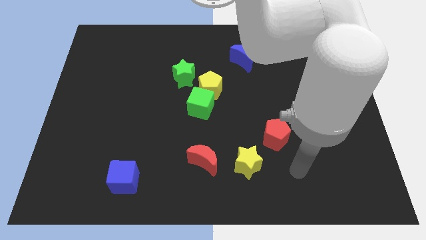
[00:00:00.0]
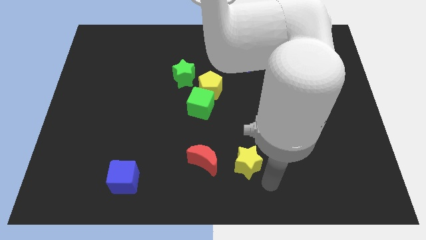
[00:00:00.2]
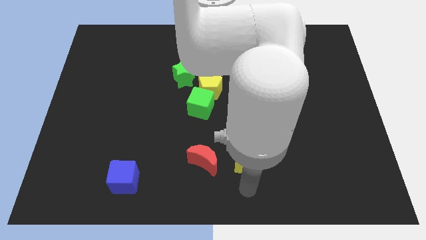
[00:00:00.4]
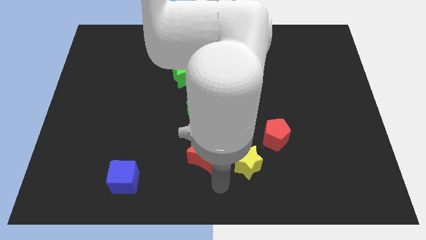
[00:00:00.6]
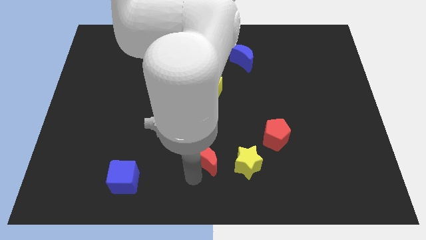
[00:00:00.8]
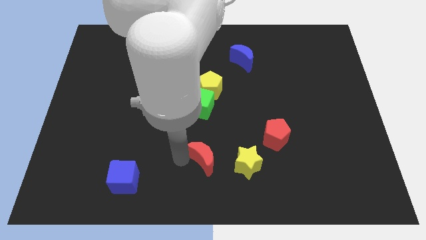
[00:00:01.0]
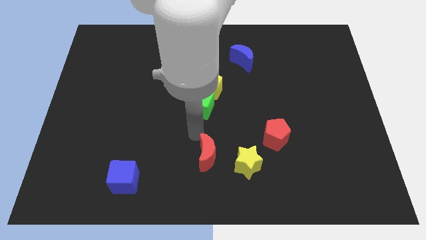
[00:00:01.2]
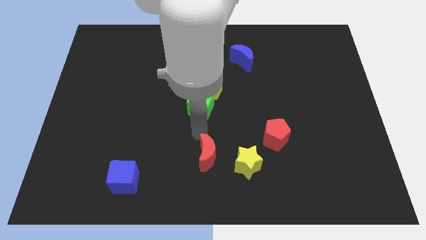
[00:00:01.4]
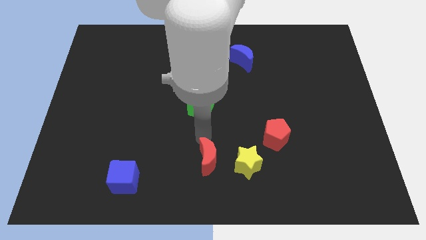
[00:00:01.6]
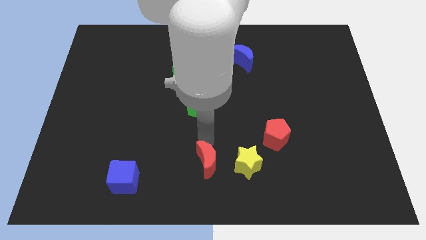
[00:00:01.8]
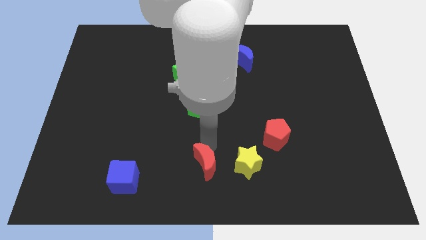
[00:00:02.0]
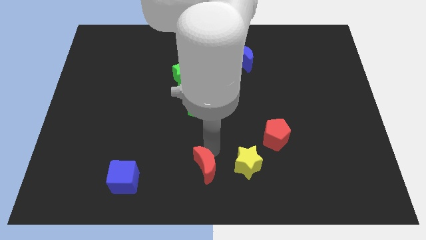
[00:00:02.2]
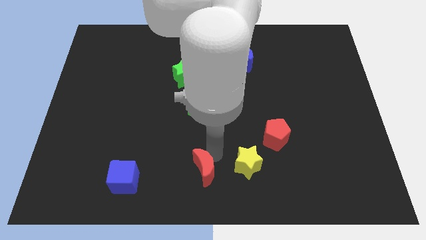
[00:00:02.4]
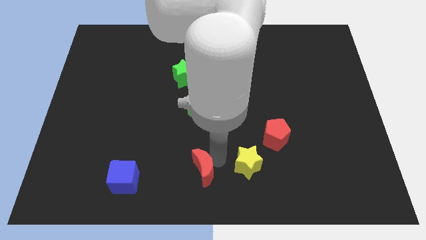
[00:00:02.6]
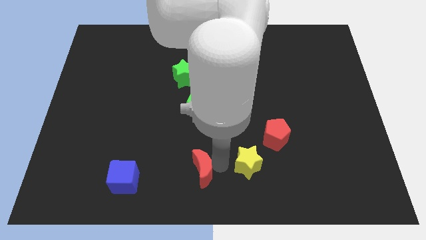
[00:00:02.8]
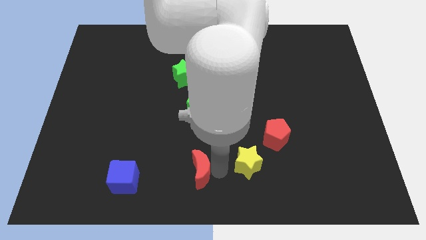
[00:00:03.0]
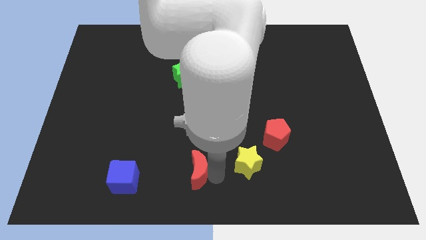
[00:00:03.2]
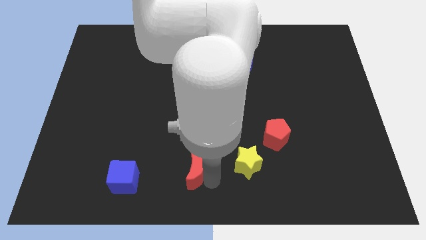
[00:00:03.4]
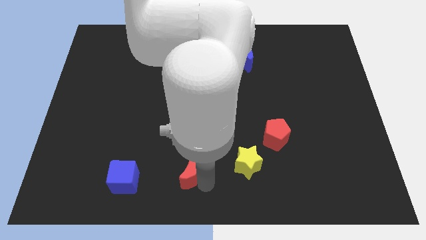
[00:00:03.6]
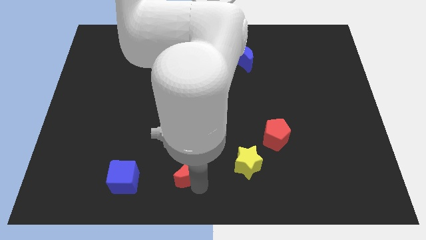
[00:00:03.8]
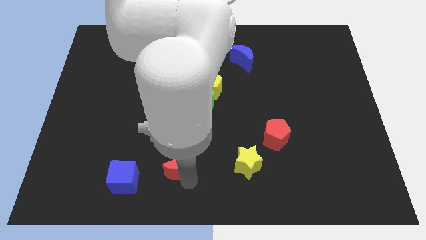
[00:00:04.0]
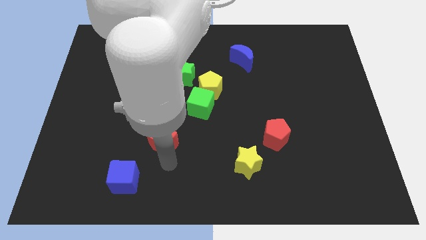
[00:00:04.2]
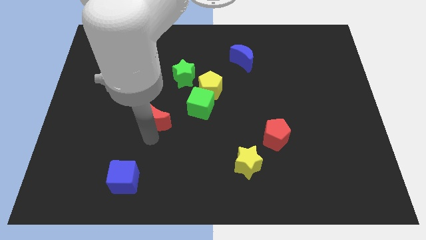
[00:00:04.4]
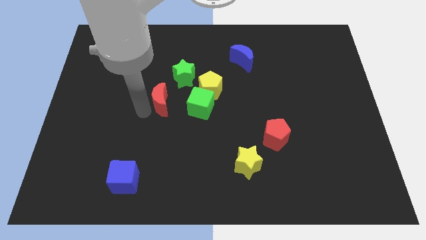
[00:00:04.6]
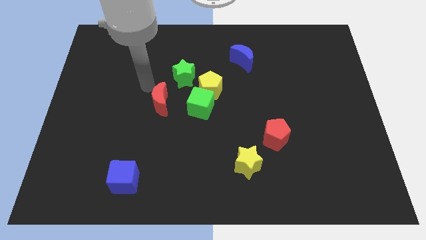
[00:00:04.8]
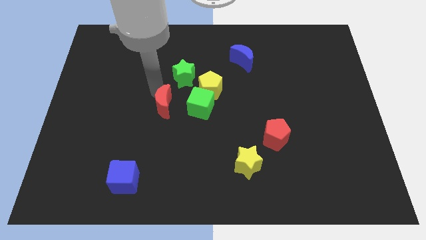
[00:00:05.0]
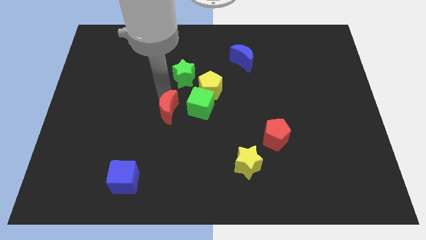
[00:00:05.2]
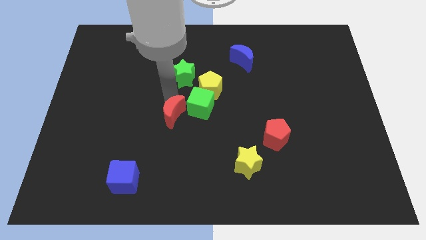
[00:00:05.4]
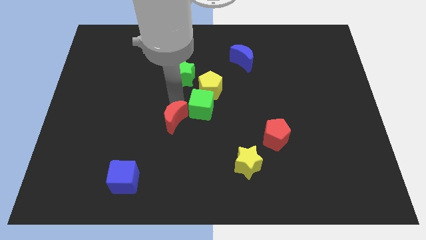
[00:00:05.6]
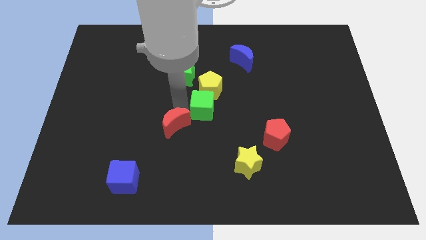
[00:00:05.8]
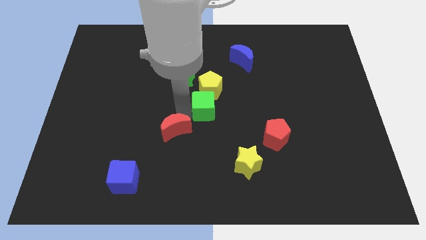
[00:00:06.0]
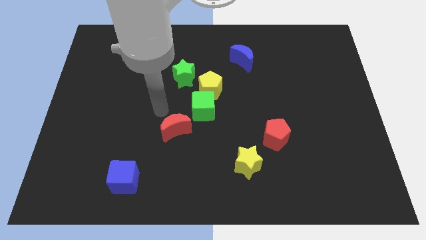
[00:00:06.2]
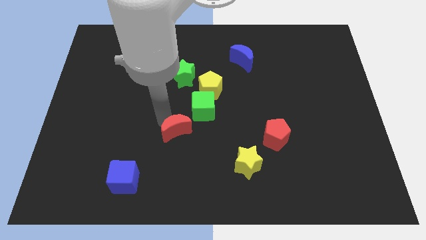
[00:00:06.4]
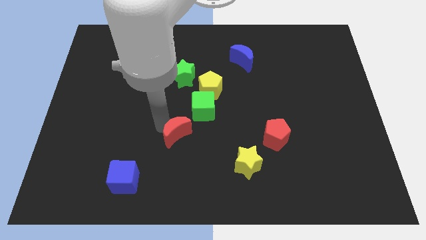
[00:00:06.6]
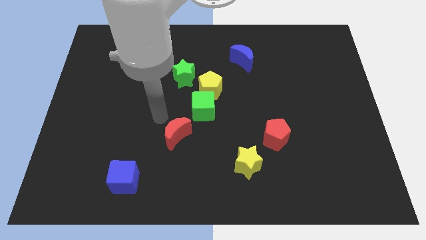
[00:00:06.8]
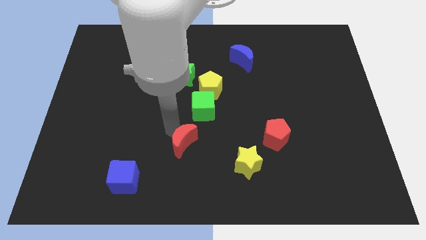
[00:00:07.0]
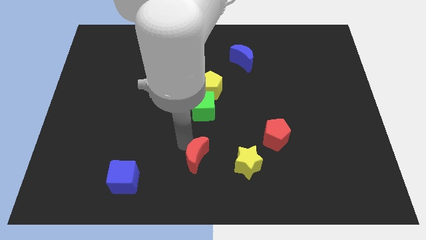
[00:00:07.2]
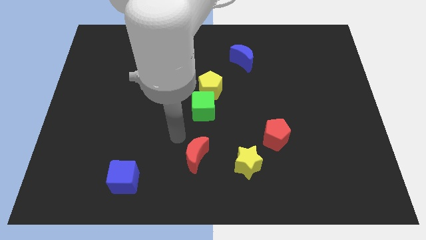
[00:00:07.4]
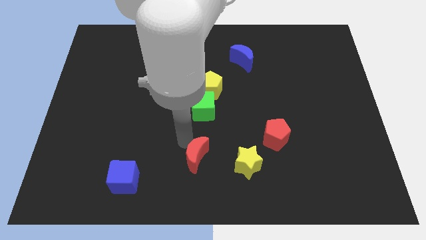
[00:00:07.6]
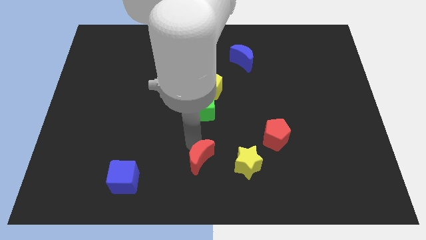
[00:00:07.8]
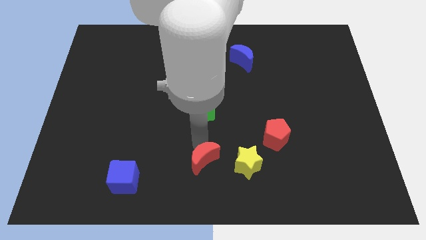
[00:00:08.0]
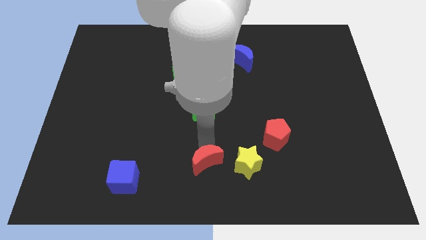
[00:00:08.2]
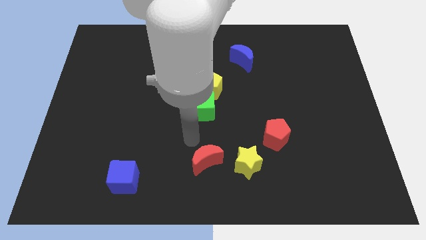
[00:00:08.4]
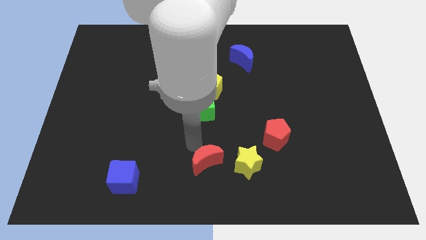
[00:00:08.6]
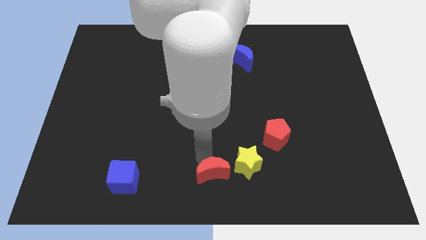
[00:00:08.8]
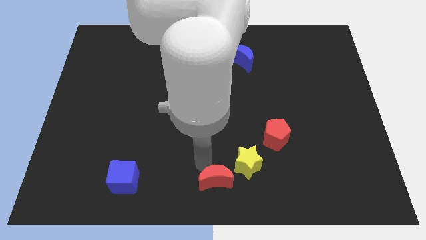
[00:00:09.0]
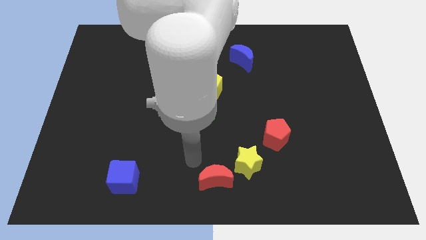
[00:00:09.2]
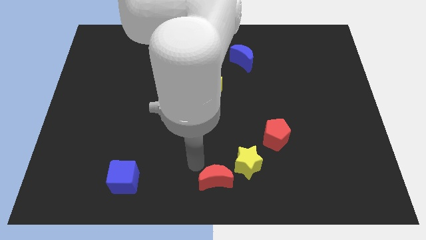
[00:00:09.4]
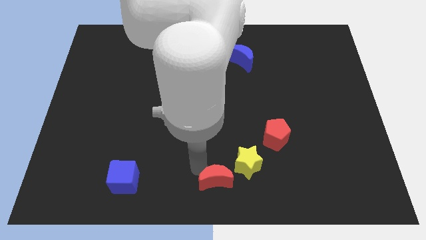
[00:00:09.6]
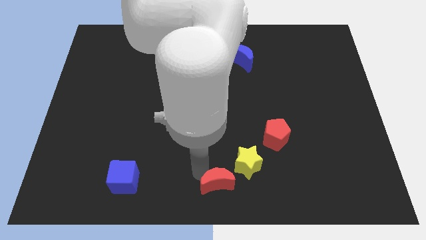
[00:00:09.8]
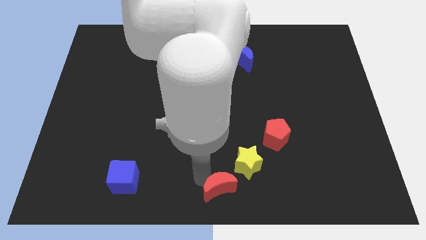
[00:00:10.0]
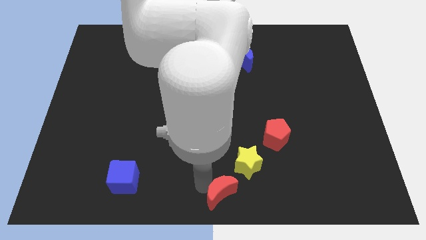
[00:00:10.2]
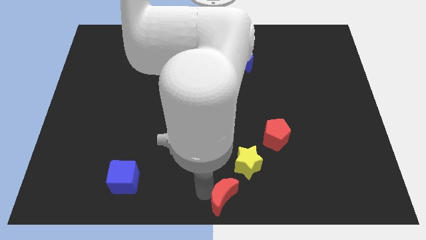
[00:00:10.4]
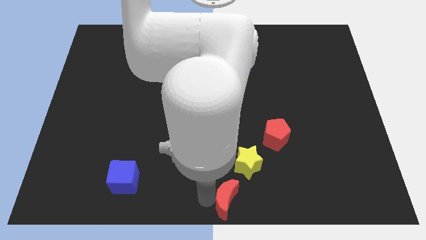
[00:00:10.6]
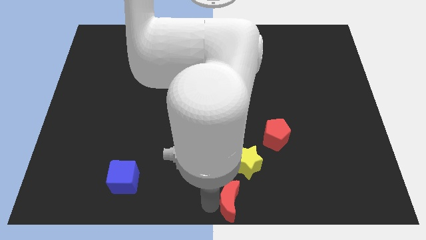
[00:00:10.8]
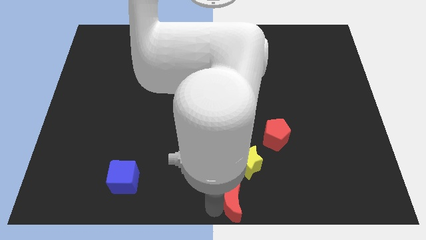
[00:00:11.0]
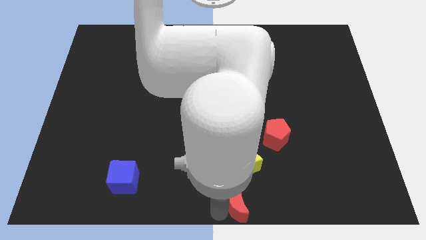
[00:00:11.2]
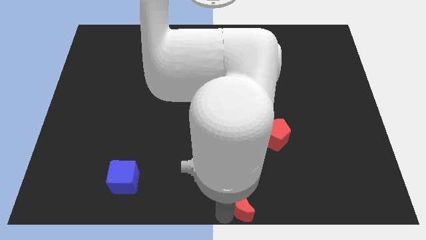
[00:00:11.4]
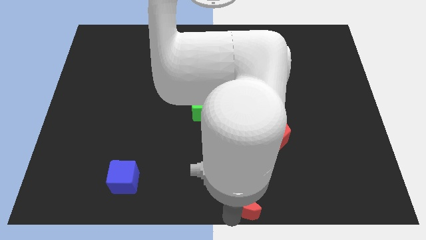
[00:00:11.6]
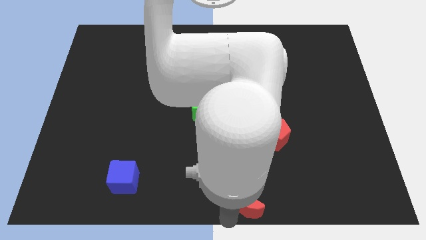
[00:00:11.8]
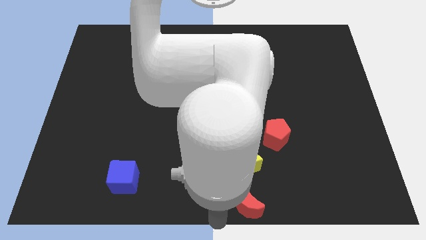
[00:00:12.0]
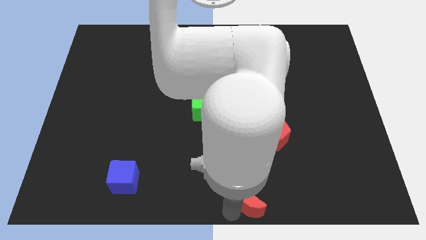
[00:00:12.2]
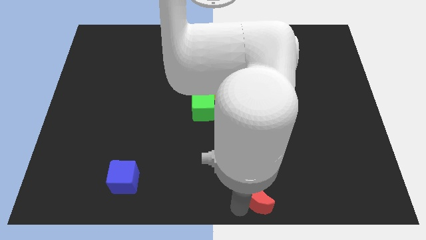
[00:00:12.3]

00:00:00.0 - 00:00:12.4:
slide the red moon to the right a bit

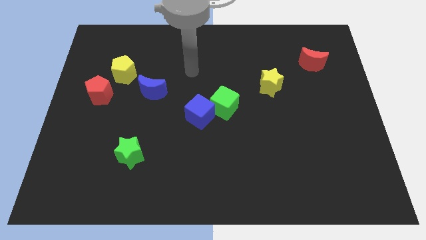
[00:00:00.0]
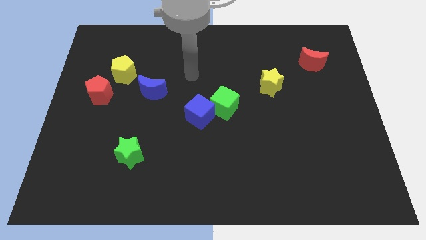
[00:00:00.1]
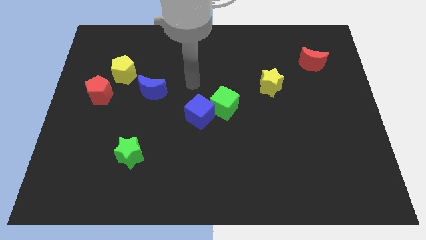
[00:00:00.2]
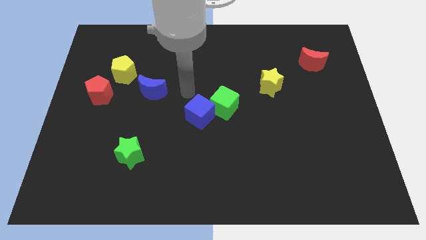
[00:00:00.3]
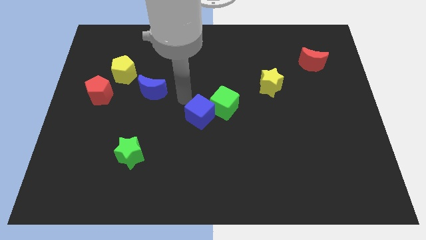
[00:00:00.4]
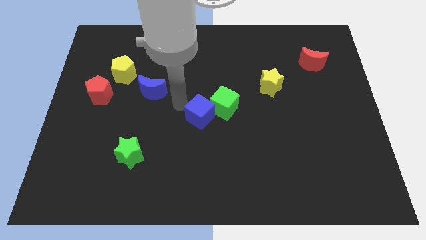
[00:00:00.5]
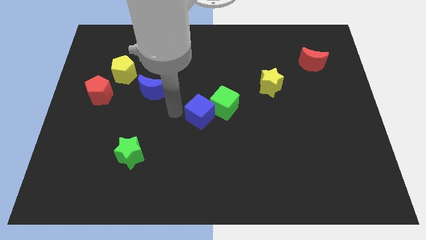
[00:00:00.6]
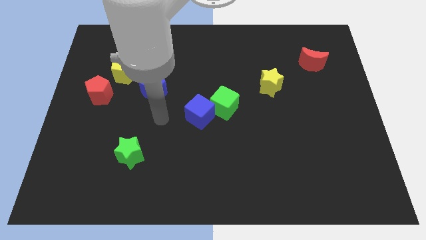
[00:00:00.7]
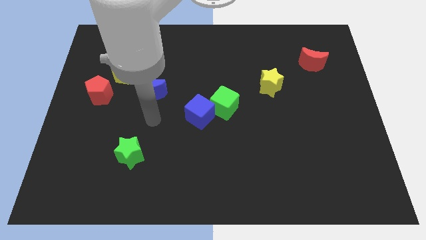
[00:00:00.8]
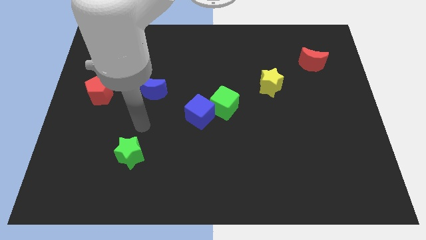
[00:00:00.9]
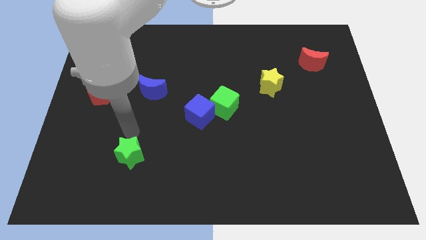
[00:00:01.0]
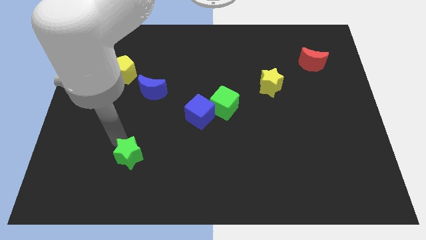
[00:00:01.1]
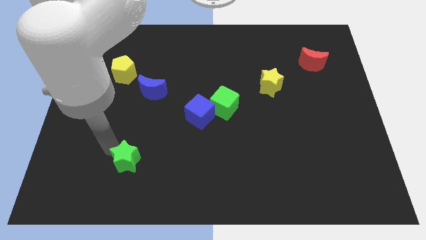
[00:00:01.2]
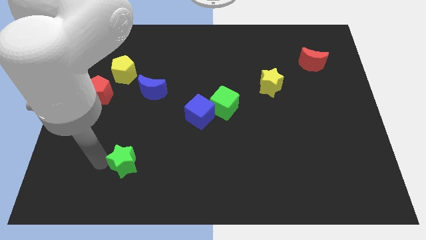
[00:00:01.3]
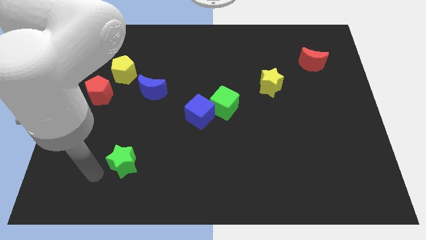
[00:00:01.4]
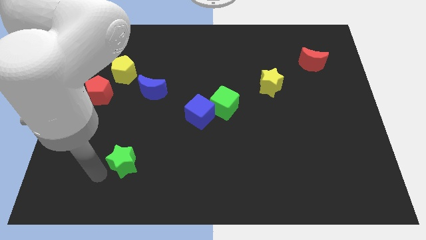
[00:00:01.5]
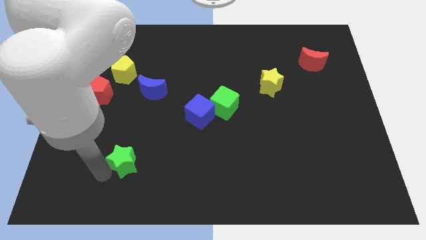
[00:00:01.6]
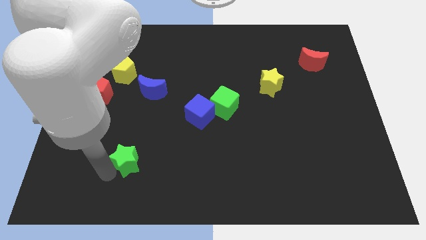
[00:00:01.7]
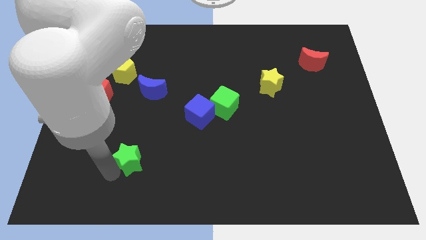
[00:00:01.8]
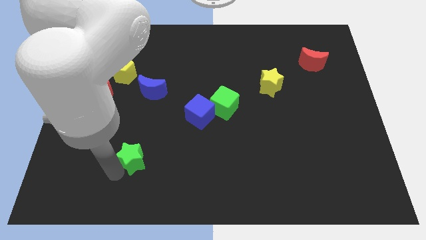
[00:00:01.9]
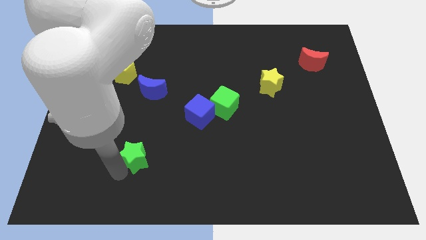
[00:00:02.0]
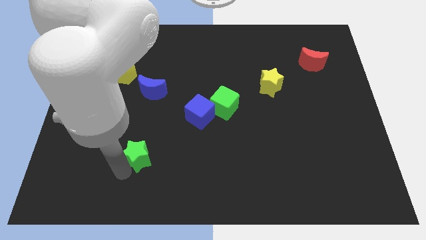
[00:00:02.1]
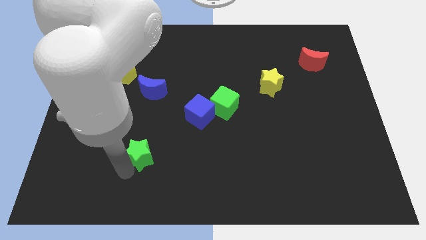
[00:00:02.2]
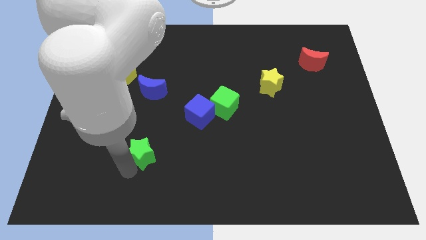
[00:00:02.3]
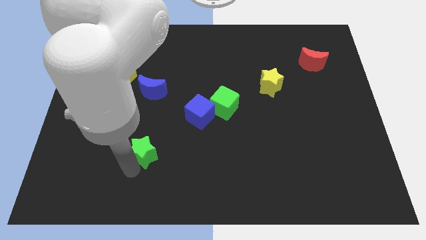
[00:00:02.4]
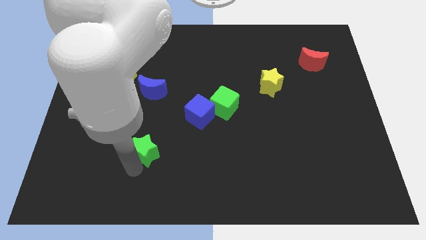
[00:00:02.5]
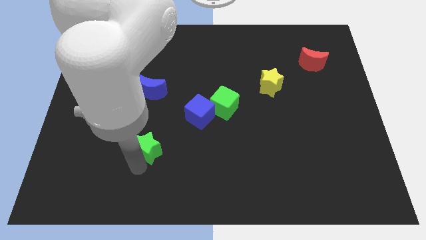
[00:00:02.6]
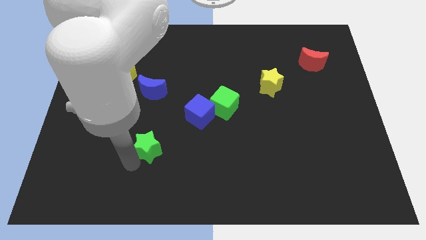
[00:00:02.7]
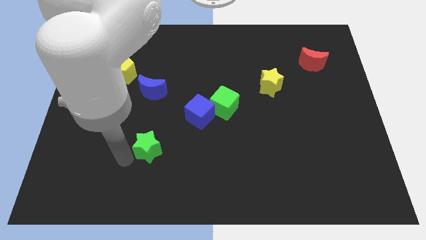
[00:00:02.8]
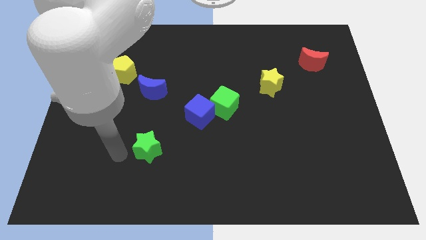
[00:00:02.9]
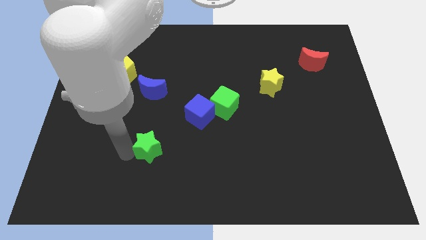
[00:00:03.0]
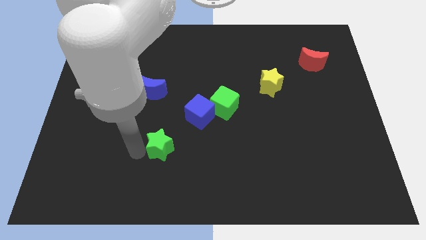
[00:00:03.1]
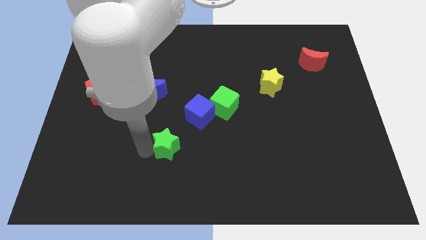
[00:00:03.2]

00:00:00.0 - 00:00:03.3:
slide the green star to the right somewhat
